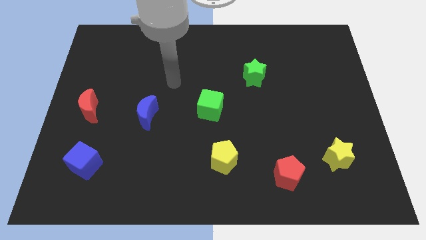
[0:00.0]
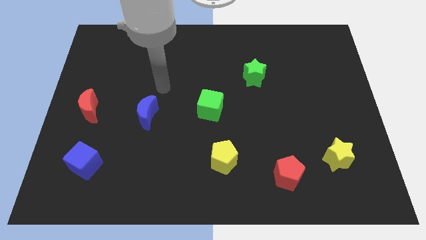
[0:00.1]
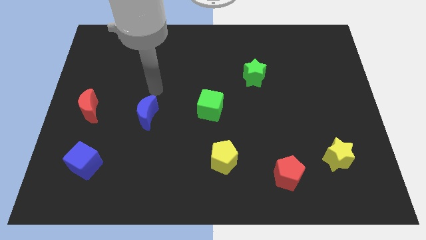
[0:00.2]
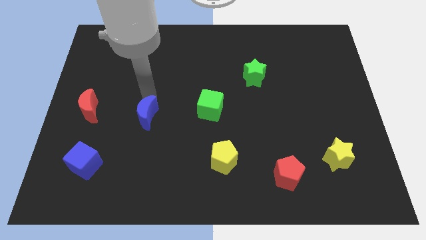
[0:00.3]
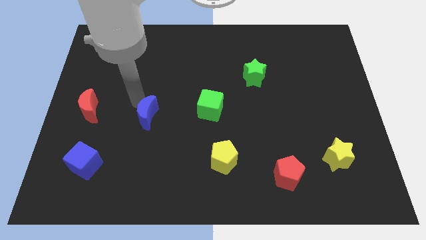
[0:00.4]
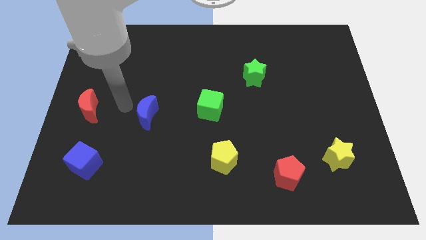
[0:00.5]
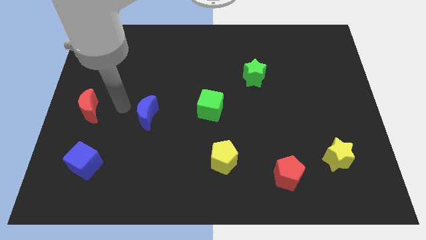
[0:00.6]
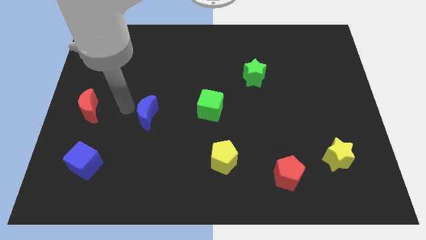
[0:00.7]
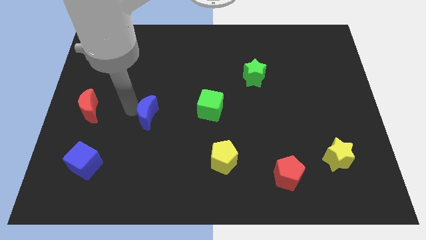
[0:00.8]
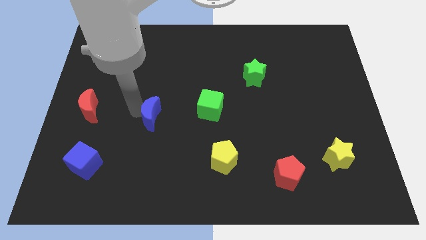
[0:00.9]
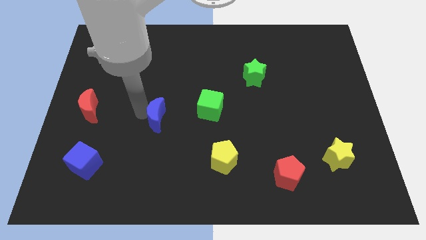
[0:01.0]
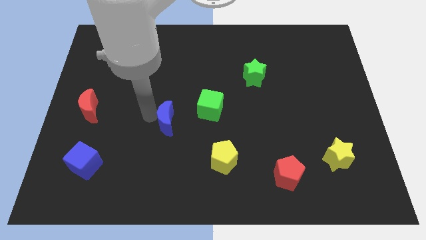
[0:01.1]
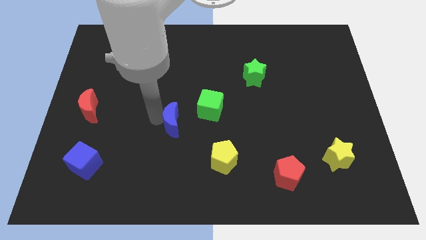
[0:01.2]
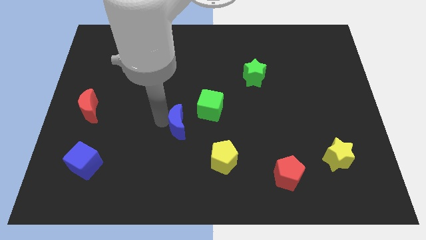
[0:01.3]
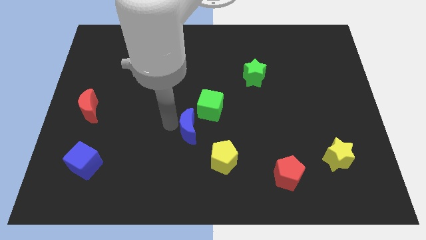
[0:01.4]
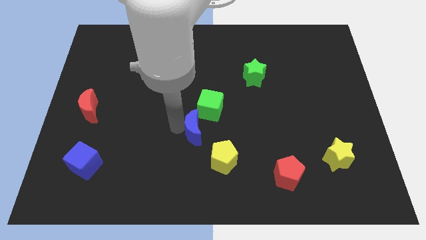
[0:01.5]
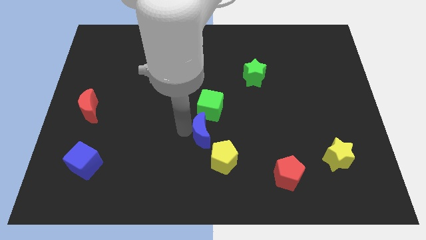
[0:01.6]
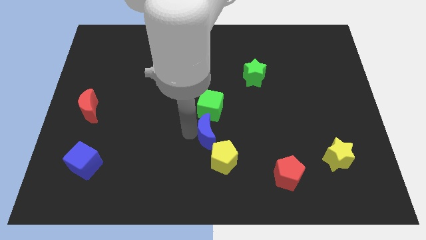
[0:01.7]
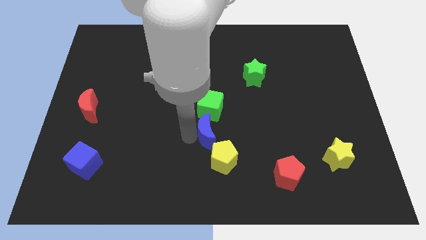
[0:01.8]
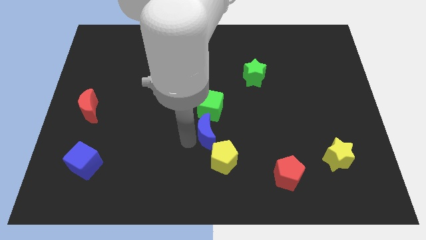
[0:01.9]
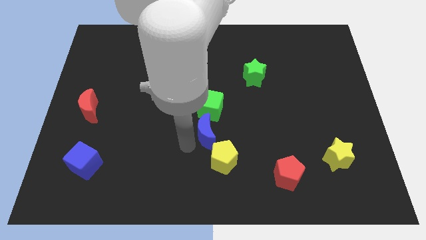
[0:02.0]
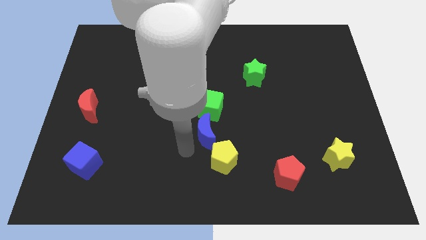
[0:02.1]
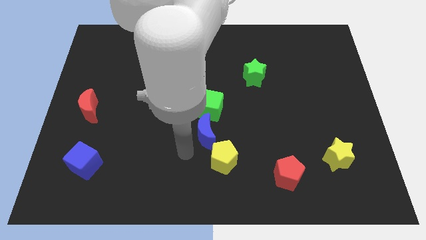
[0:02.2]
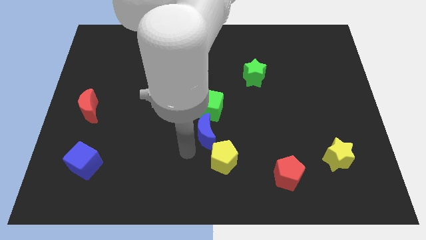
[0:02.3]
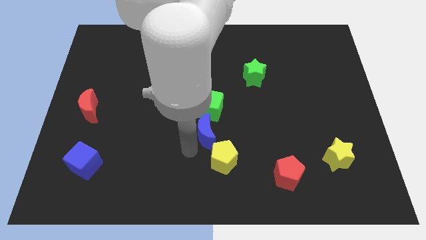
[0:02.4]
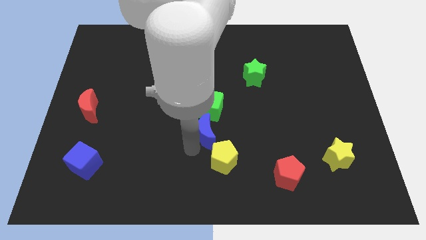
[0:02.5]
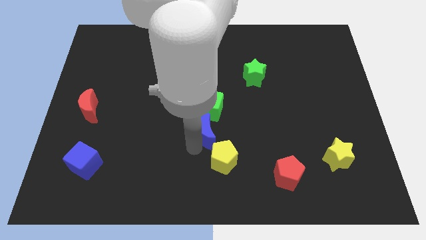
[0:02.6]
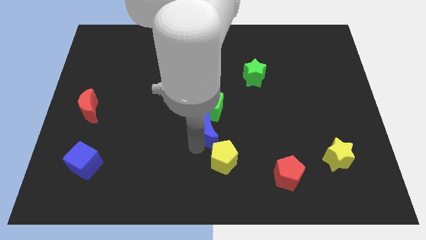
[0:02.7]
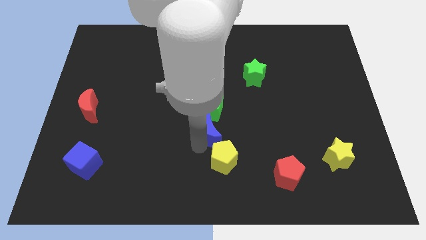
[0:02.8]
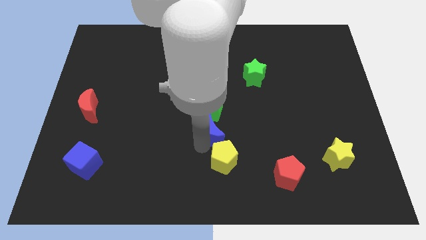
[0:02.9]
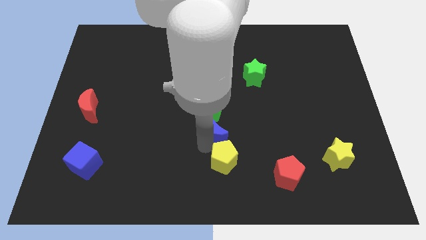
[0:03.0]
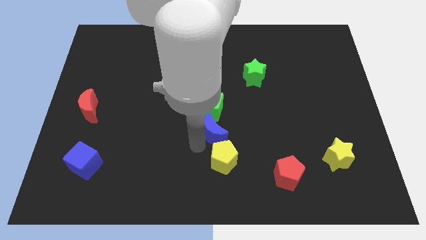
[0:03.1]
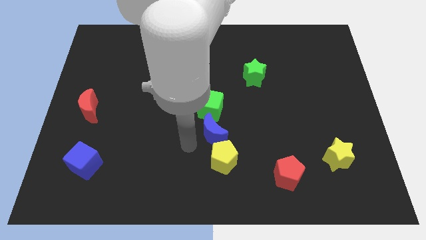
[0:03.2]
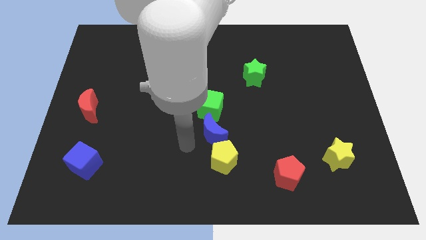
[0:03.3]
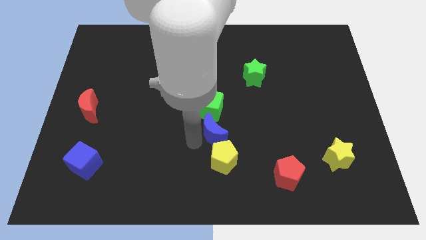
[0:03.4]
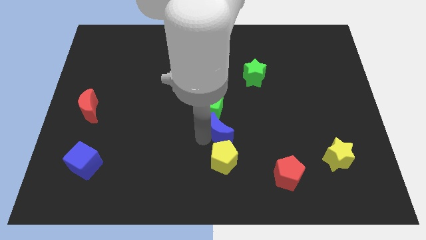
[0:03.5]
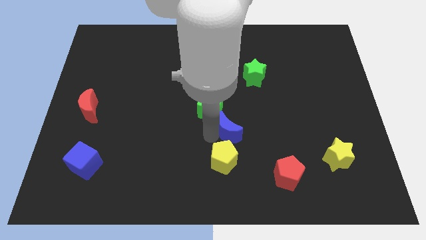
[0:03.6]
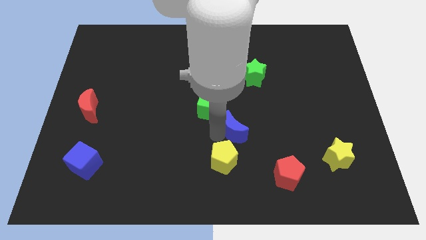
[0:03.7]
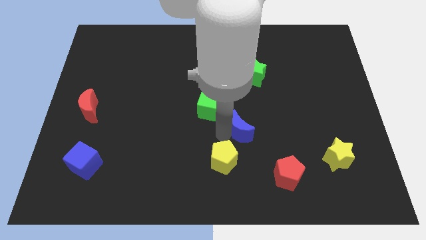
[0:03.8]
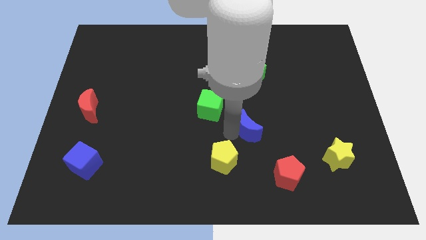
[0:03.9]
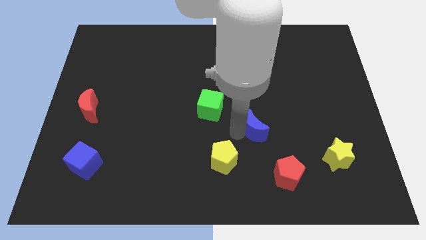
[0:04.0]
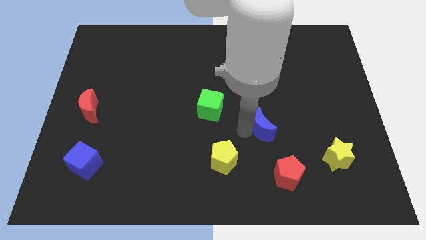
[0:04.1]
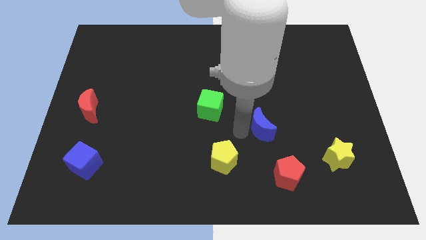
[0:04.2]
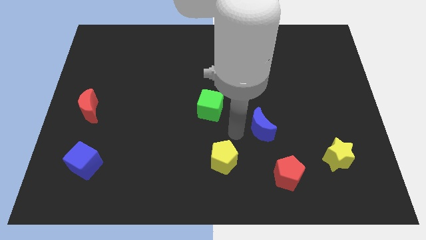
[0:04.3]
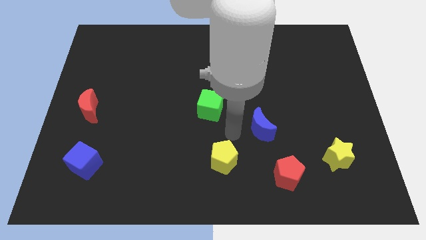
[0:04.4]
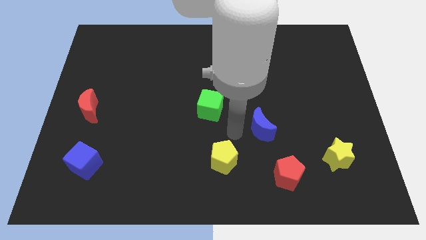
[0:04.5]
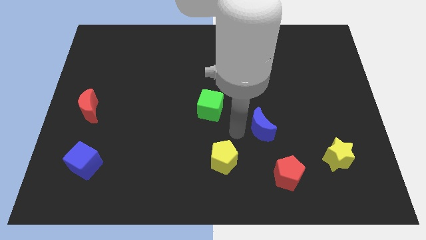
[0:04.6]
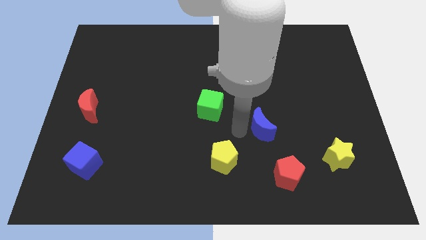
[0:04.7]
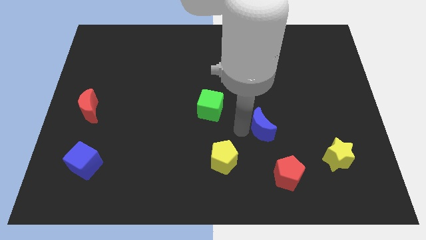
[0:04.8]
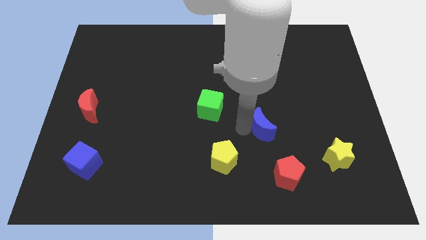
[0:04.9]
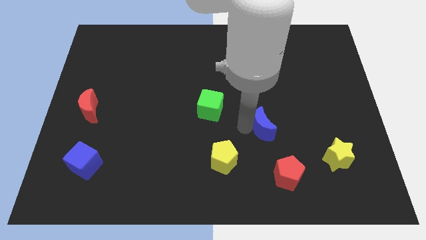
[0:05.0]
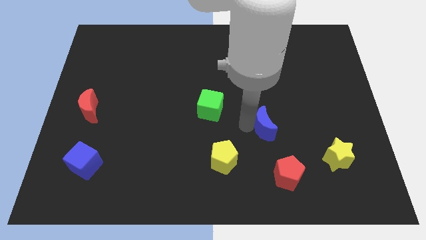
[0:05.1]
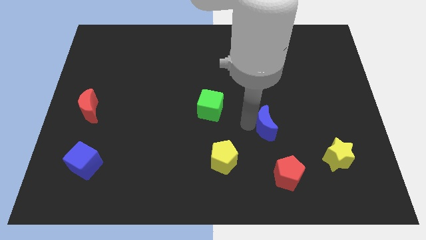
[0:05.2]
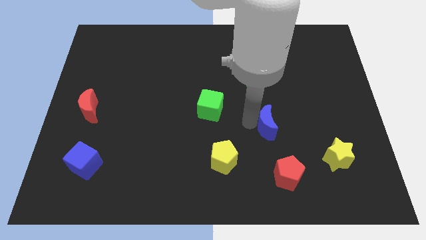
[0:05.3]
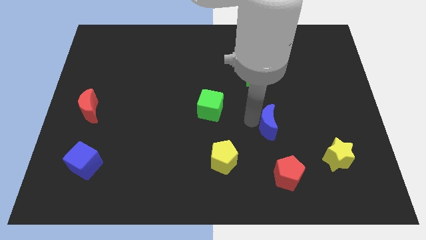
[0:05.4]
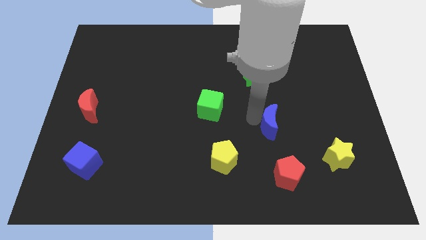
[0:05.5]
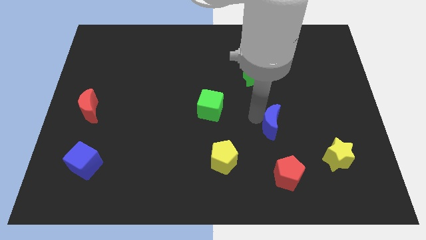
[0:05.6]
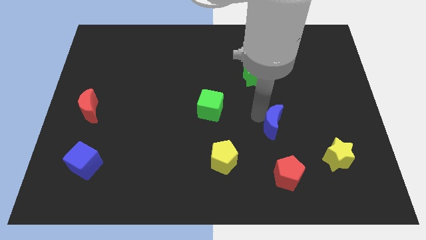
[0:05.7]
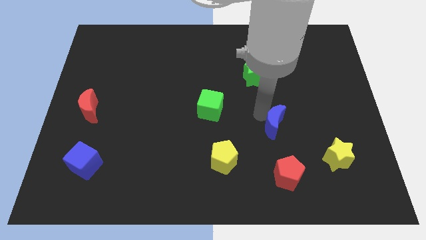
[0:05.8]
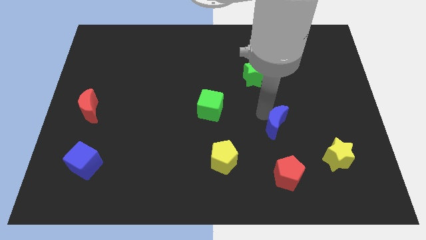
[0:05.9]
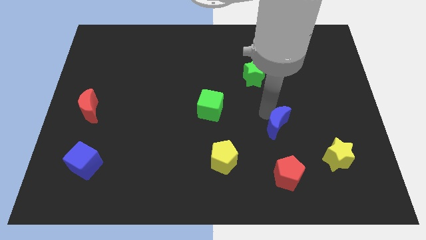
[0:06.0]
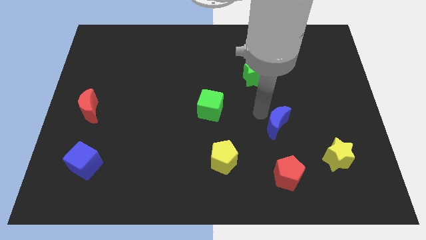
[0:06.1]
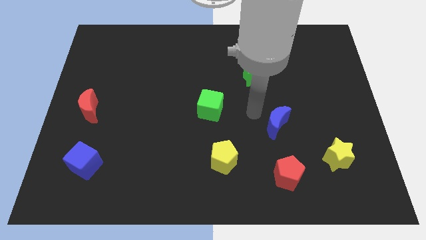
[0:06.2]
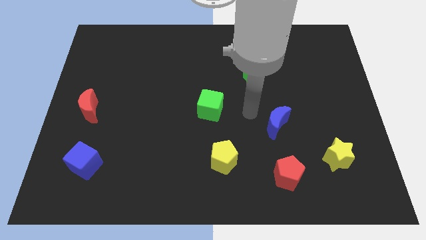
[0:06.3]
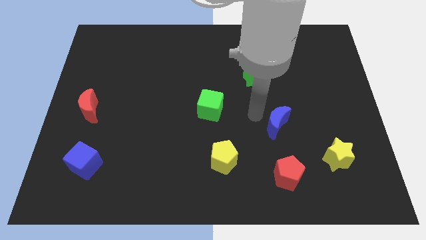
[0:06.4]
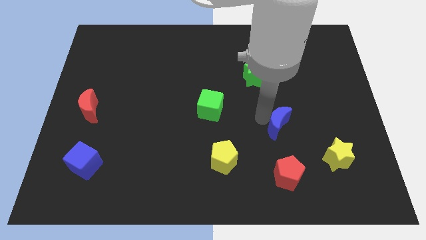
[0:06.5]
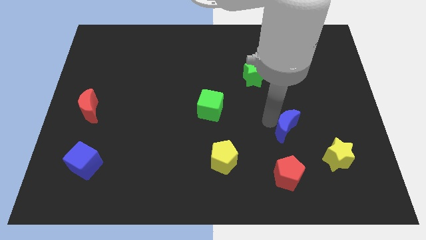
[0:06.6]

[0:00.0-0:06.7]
put the blue moon diagonally up and to the left of the yellow star
